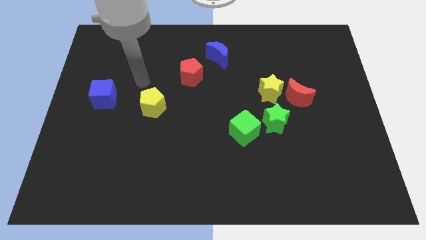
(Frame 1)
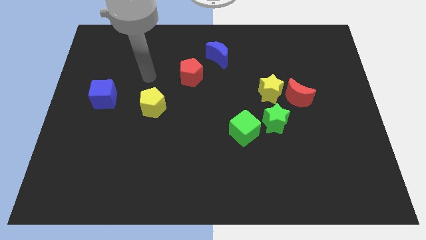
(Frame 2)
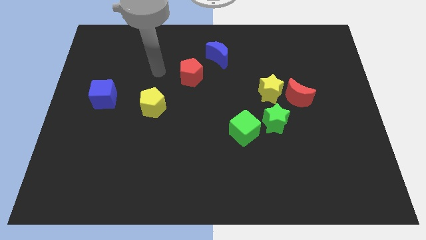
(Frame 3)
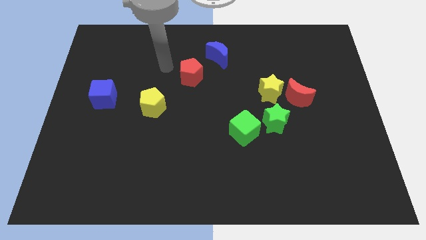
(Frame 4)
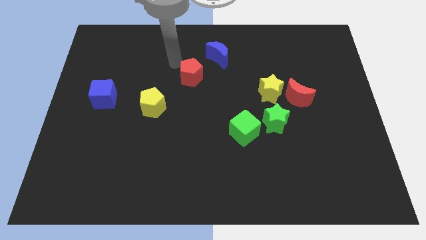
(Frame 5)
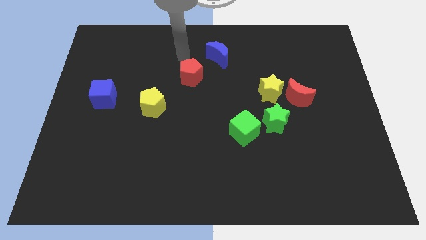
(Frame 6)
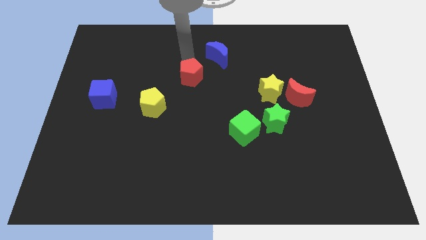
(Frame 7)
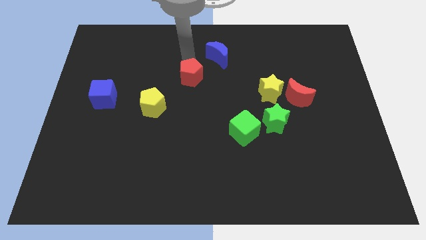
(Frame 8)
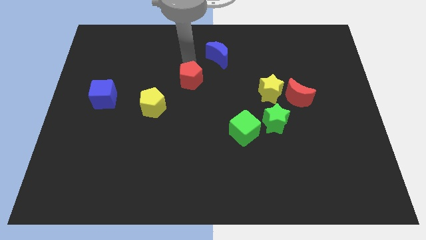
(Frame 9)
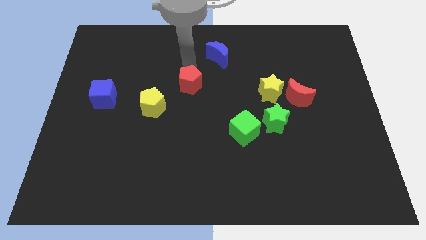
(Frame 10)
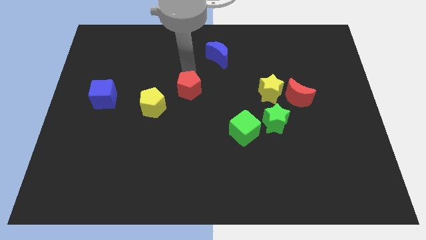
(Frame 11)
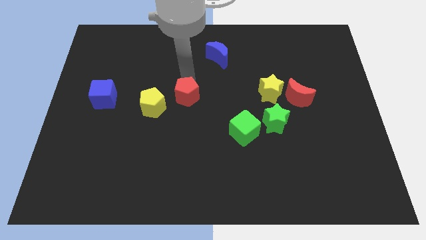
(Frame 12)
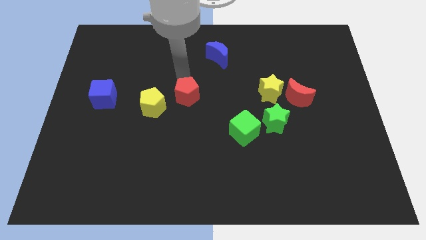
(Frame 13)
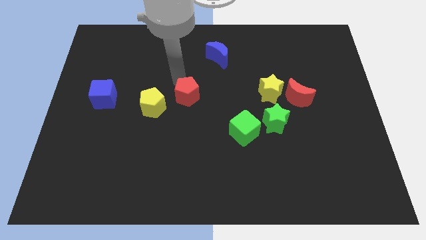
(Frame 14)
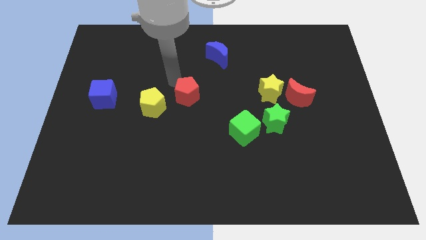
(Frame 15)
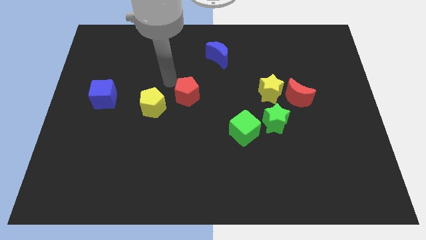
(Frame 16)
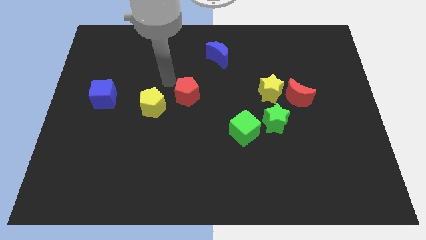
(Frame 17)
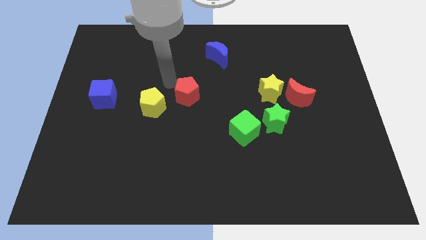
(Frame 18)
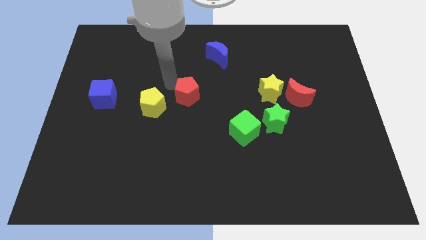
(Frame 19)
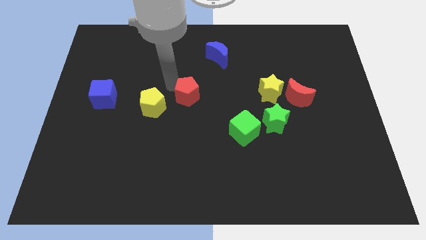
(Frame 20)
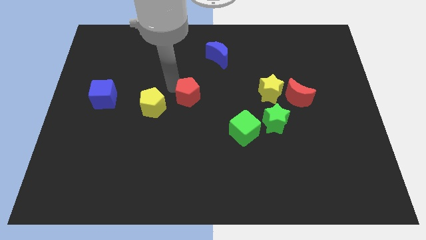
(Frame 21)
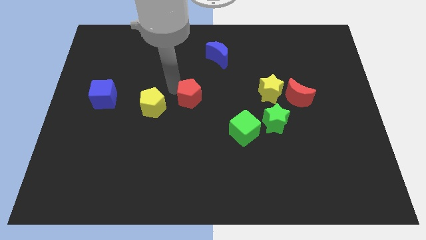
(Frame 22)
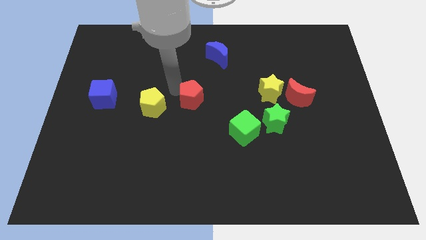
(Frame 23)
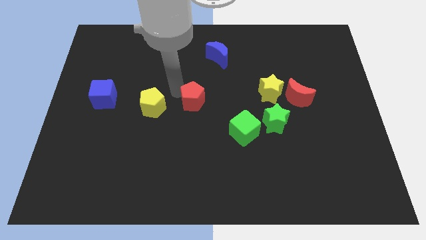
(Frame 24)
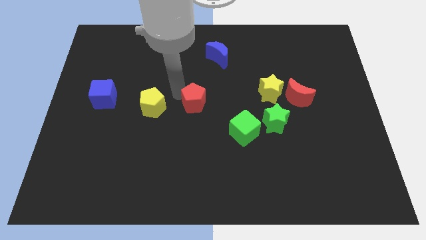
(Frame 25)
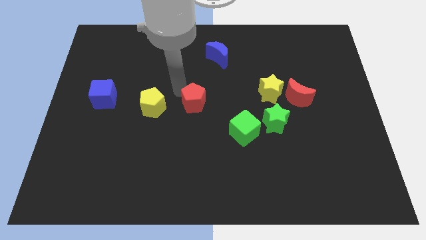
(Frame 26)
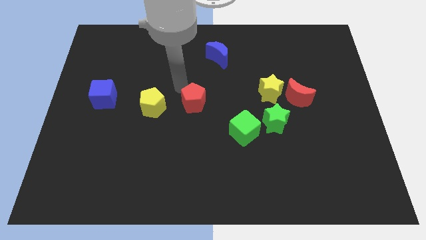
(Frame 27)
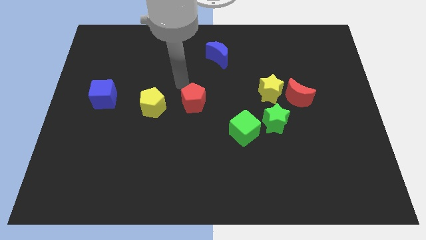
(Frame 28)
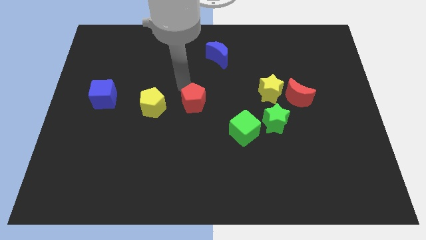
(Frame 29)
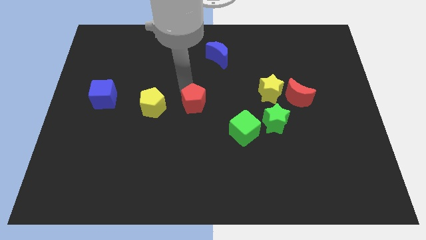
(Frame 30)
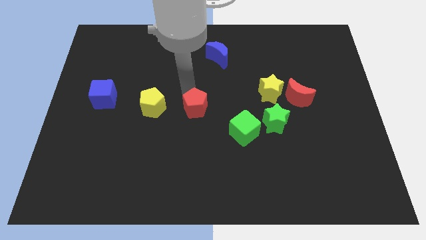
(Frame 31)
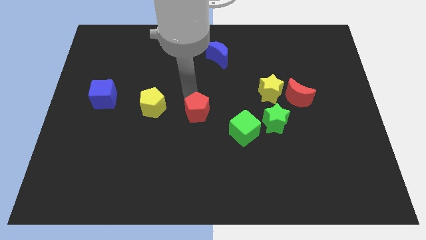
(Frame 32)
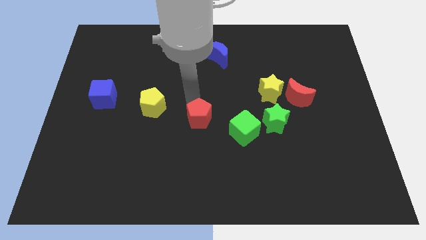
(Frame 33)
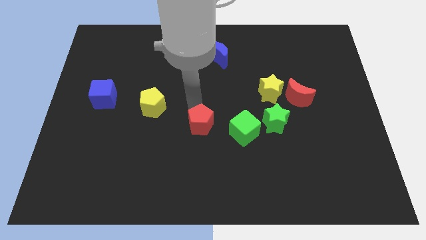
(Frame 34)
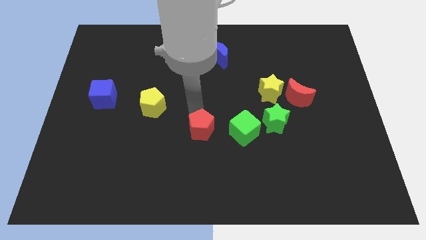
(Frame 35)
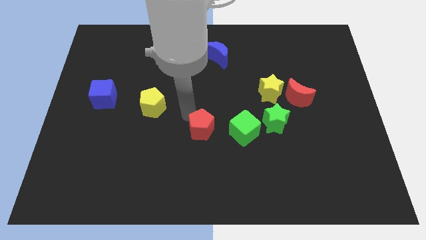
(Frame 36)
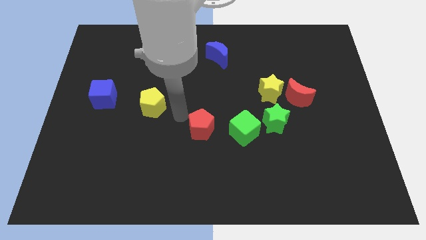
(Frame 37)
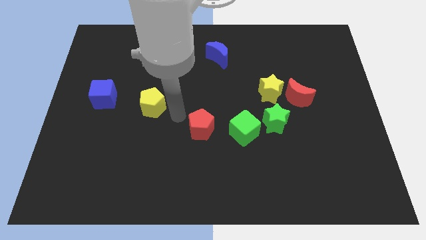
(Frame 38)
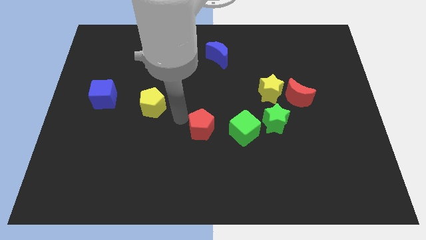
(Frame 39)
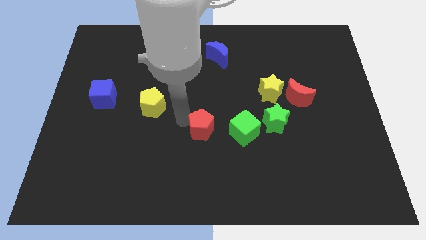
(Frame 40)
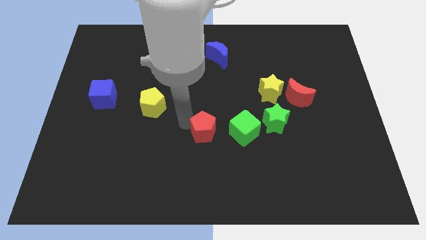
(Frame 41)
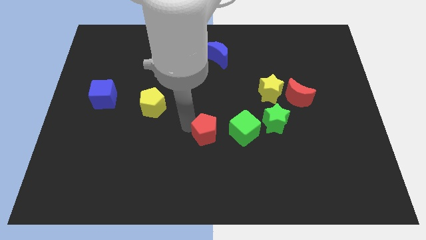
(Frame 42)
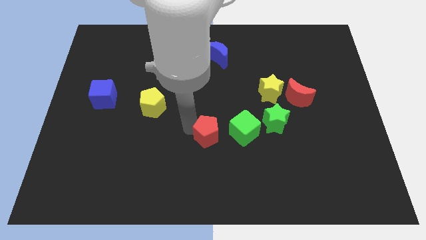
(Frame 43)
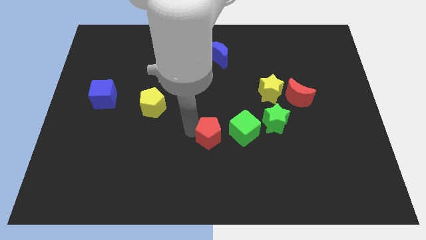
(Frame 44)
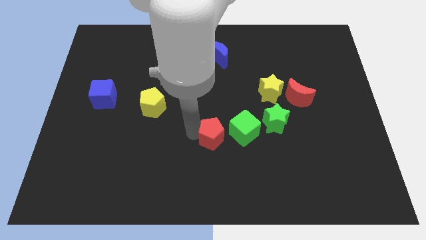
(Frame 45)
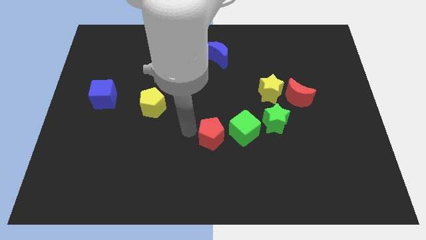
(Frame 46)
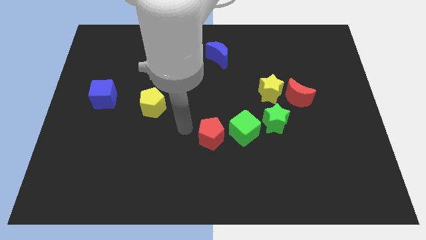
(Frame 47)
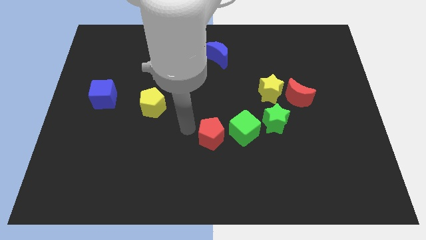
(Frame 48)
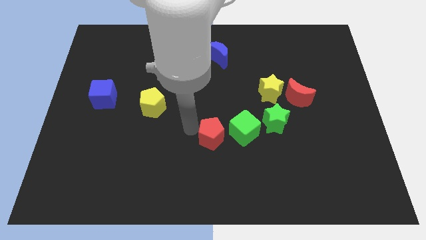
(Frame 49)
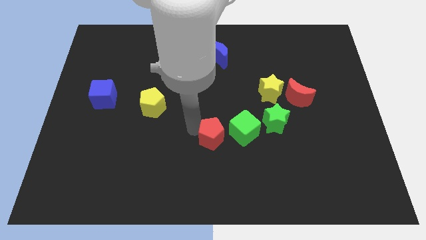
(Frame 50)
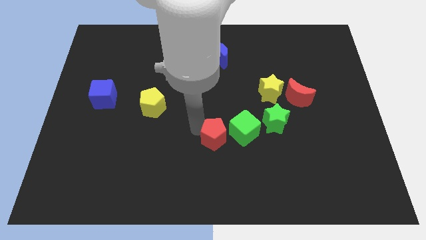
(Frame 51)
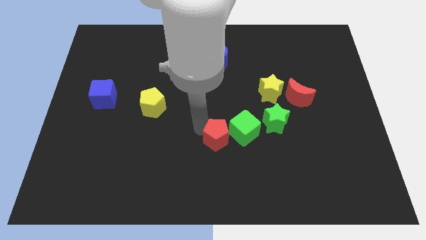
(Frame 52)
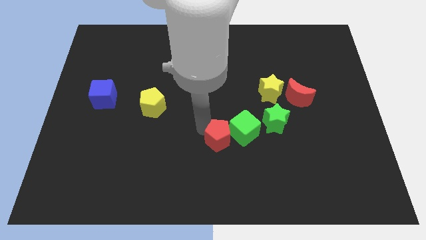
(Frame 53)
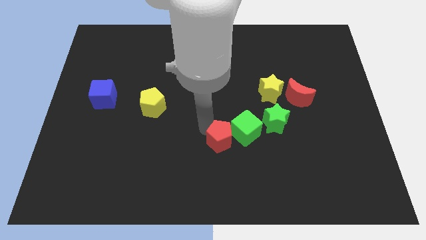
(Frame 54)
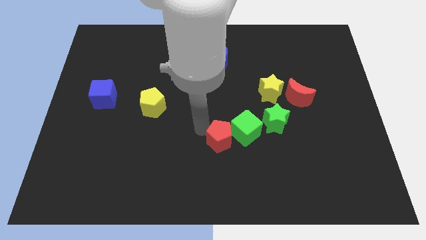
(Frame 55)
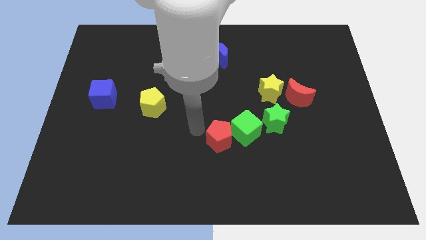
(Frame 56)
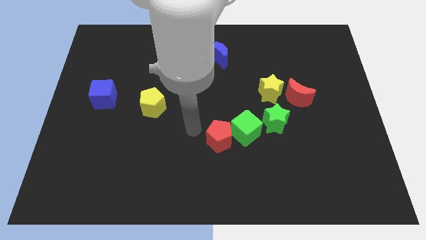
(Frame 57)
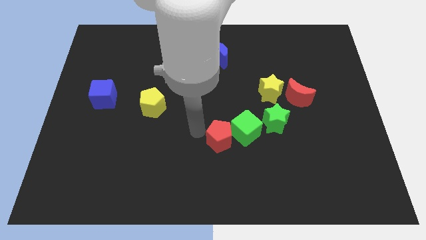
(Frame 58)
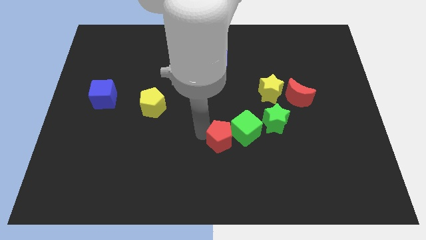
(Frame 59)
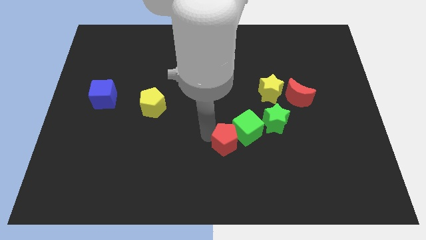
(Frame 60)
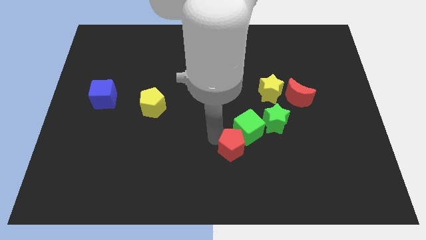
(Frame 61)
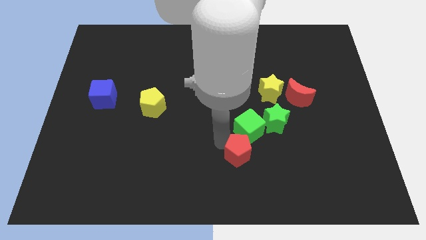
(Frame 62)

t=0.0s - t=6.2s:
slide the red pentagon downwards and then to the right

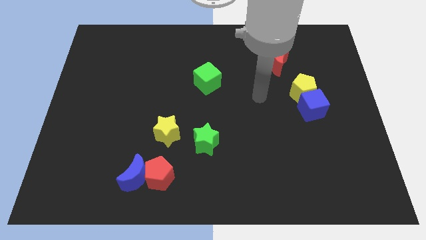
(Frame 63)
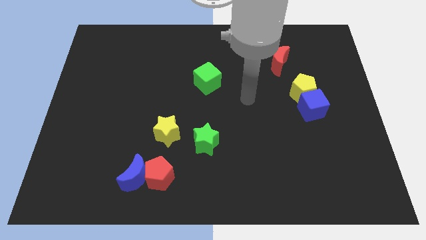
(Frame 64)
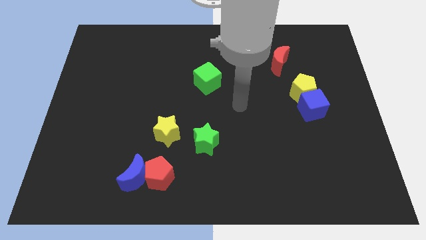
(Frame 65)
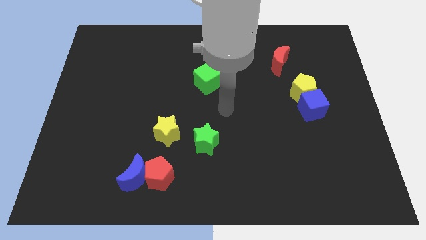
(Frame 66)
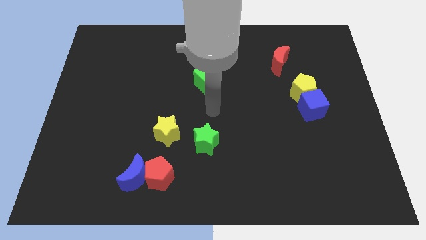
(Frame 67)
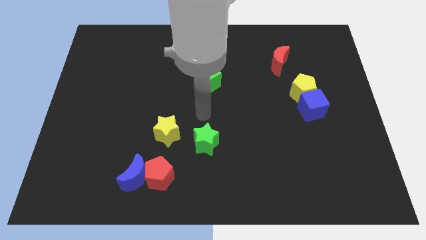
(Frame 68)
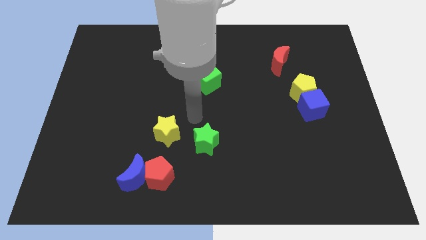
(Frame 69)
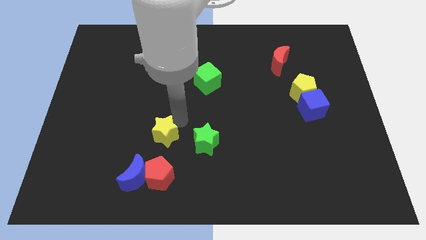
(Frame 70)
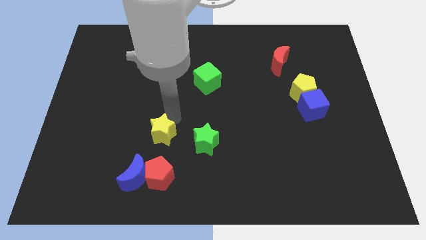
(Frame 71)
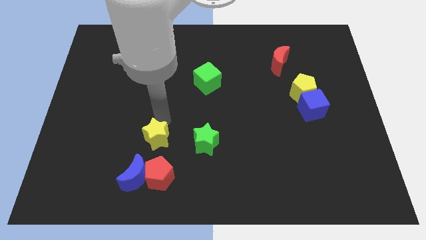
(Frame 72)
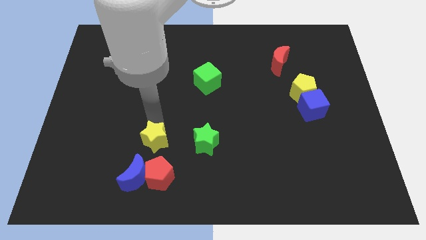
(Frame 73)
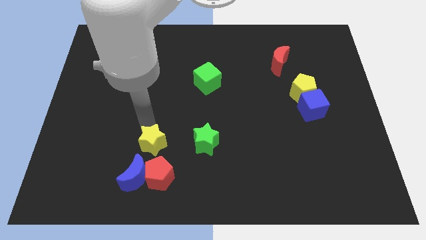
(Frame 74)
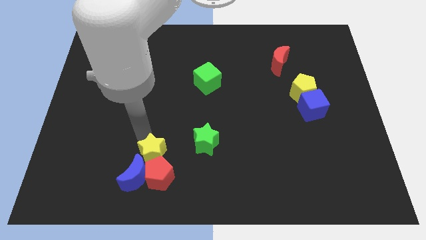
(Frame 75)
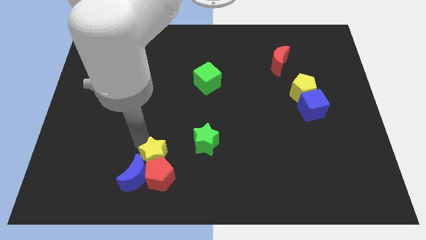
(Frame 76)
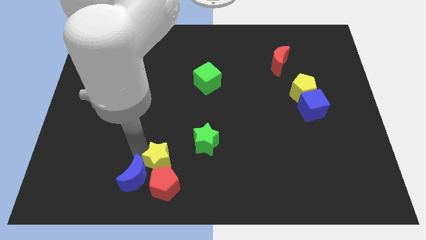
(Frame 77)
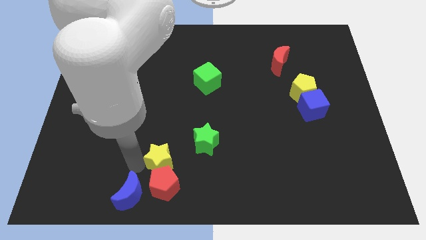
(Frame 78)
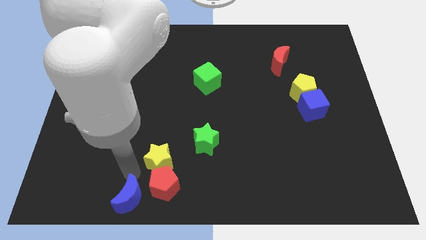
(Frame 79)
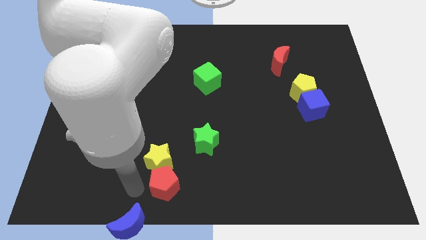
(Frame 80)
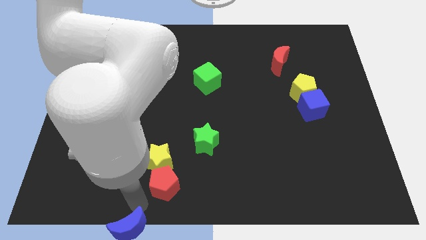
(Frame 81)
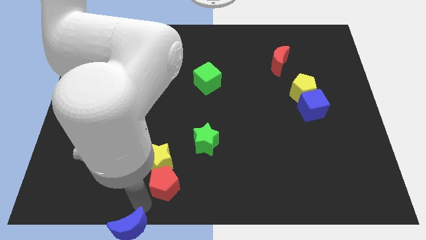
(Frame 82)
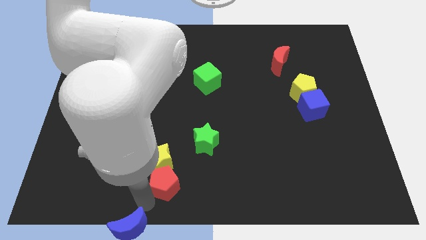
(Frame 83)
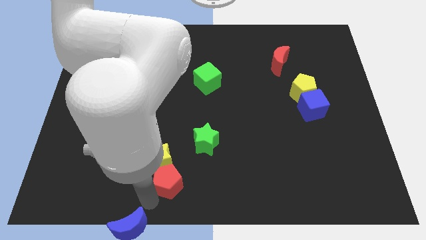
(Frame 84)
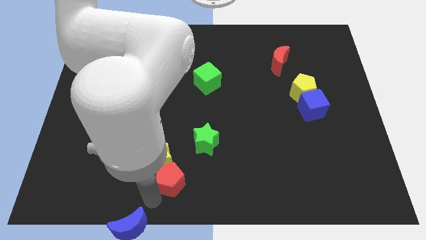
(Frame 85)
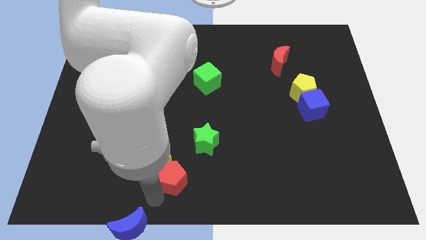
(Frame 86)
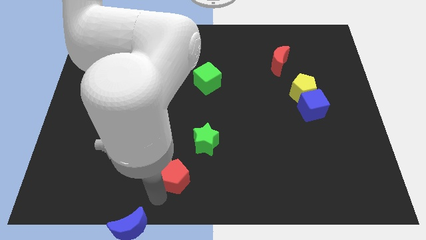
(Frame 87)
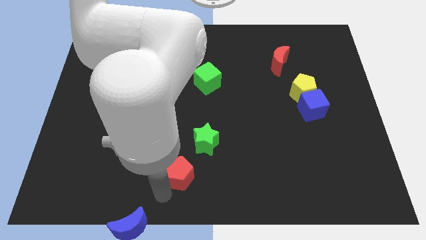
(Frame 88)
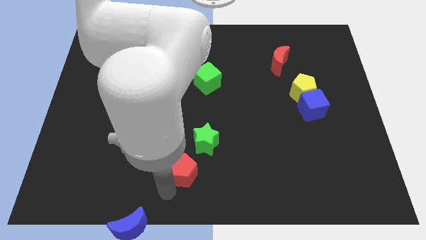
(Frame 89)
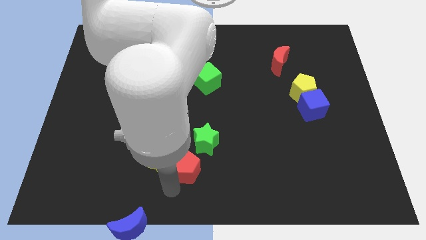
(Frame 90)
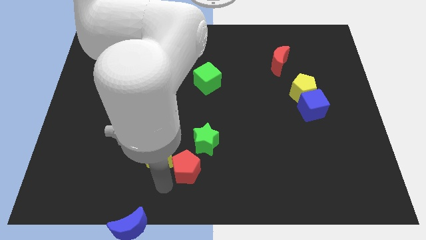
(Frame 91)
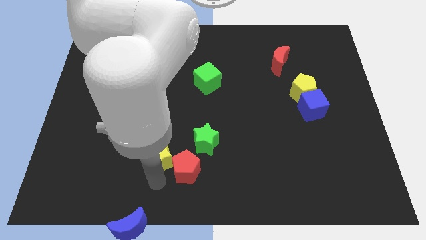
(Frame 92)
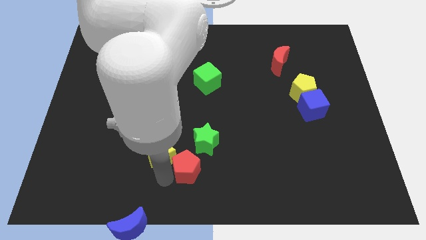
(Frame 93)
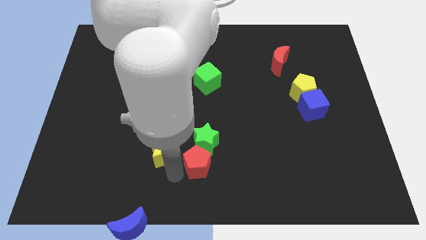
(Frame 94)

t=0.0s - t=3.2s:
push the red pentagon slightly up and to the right diagonally
